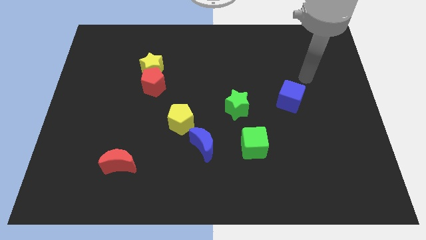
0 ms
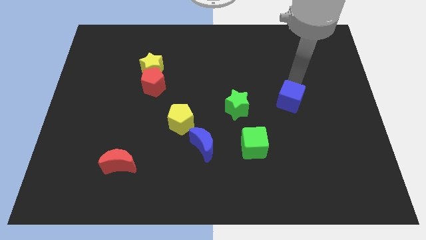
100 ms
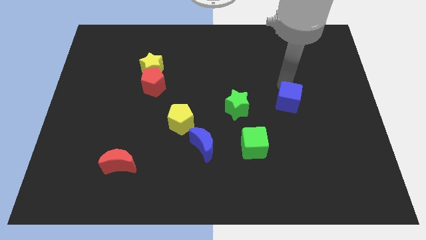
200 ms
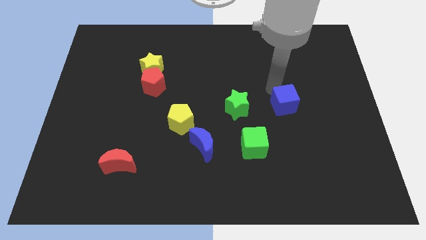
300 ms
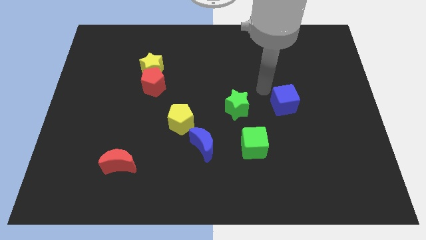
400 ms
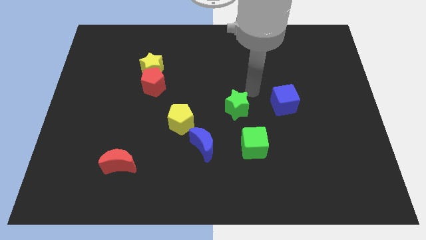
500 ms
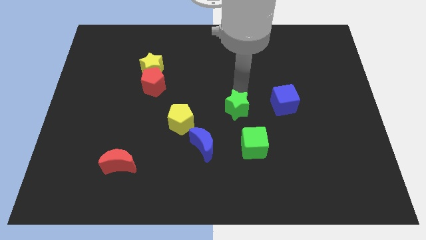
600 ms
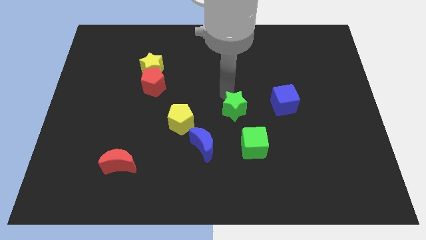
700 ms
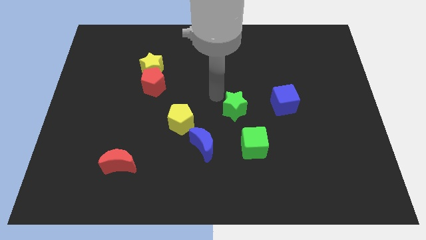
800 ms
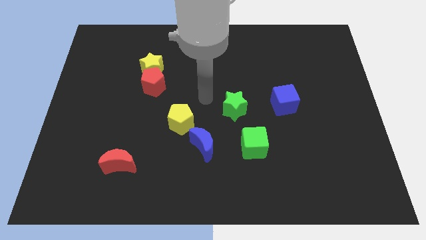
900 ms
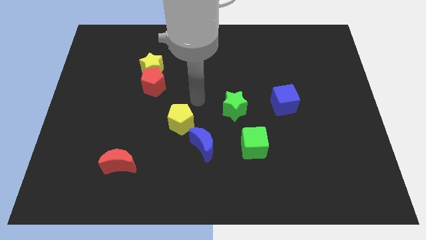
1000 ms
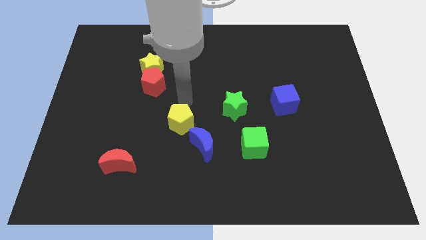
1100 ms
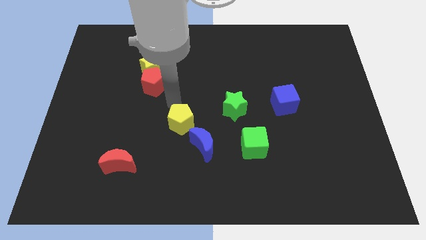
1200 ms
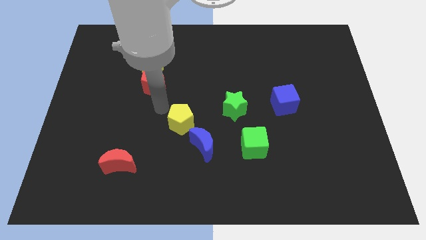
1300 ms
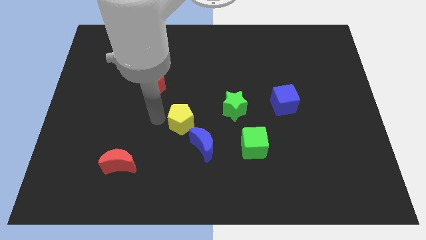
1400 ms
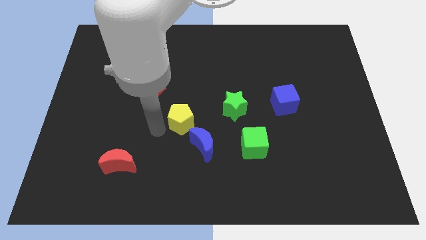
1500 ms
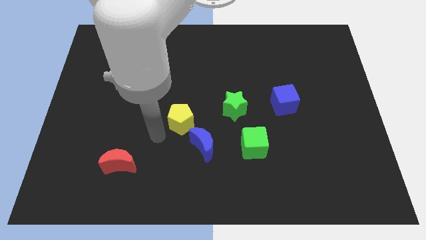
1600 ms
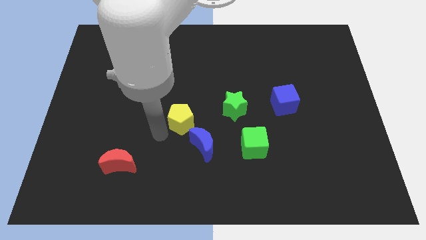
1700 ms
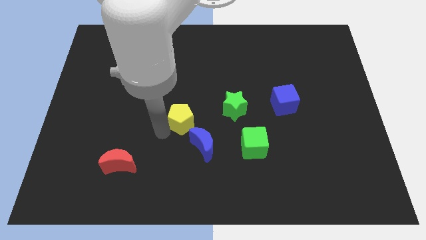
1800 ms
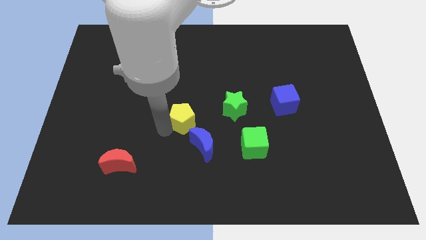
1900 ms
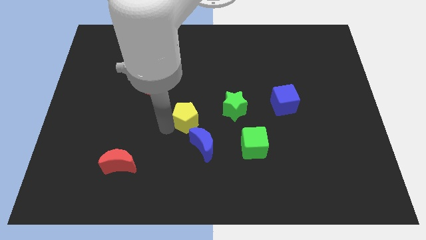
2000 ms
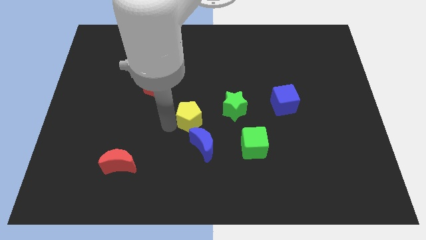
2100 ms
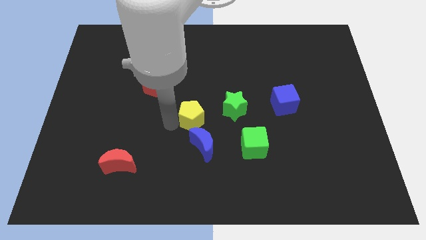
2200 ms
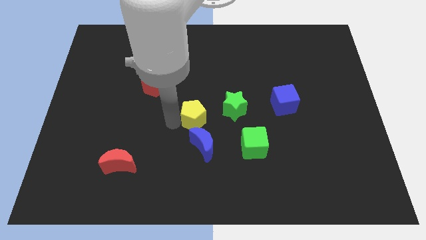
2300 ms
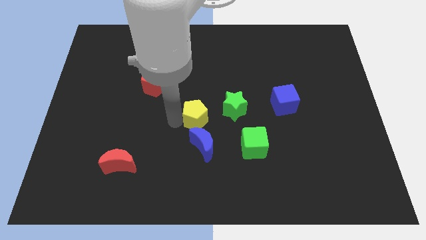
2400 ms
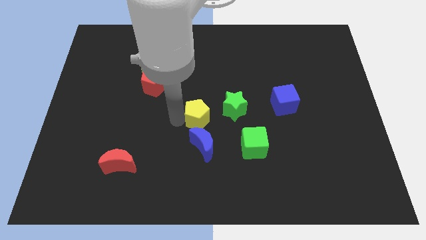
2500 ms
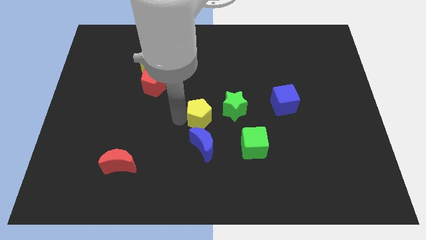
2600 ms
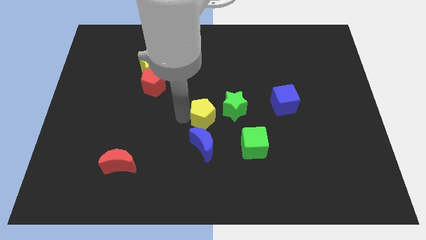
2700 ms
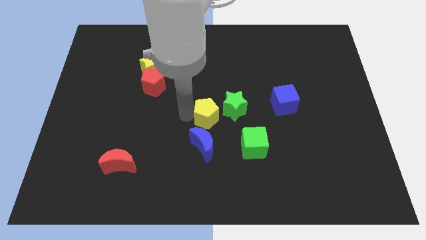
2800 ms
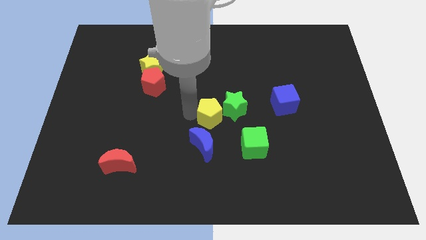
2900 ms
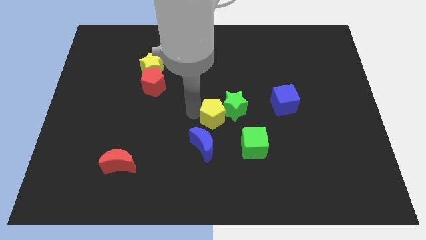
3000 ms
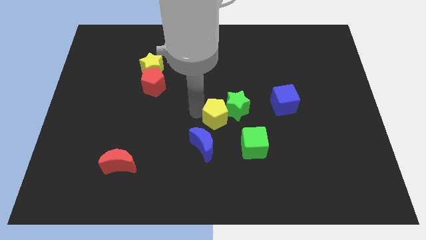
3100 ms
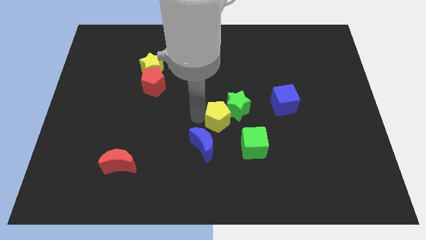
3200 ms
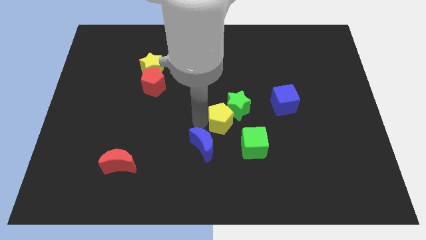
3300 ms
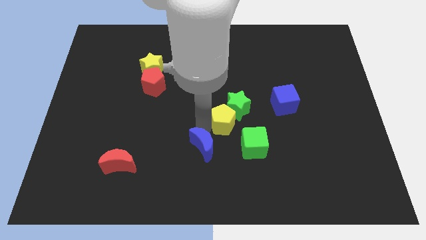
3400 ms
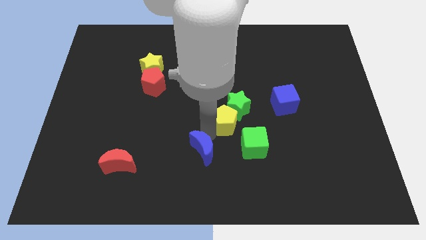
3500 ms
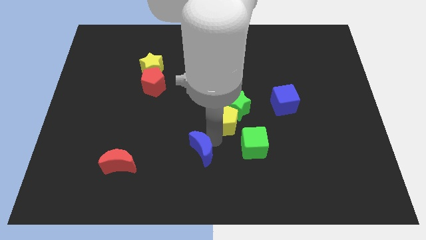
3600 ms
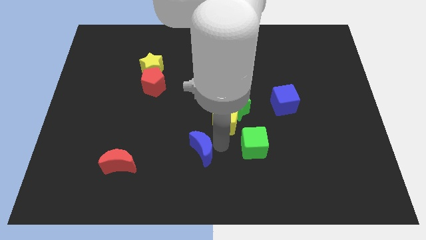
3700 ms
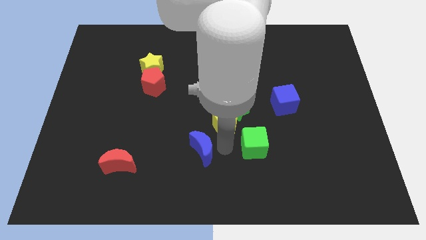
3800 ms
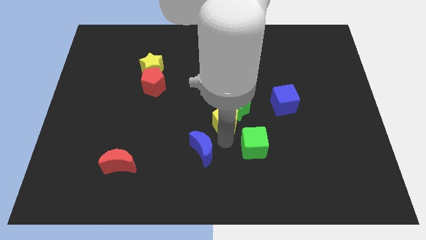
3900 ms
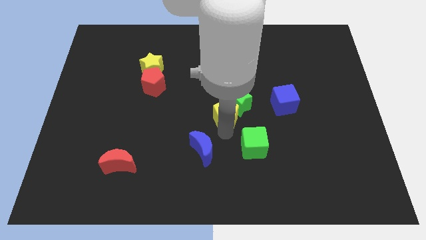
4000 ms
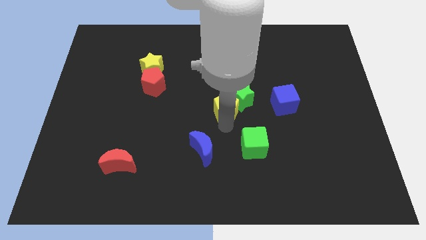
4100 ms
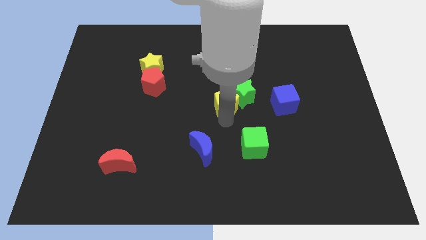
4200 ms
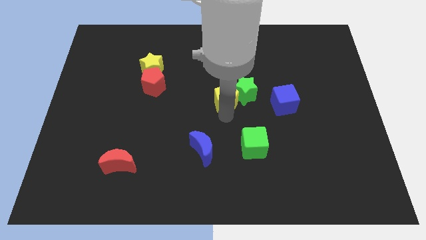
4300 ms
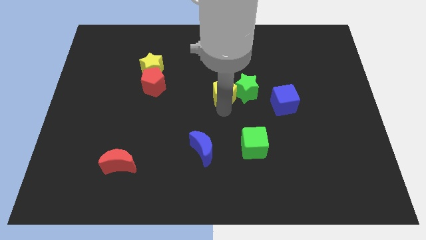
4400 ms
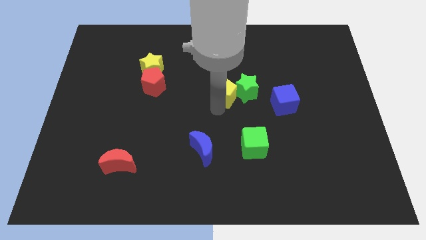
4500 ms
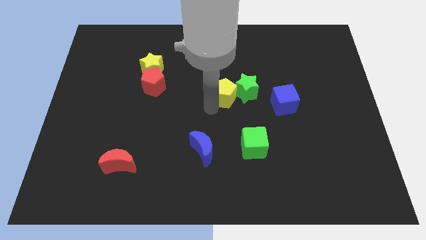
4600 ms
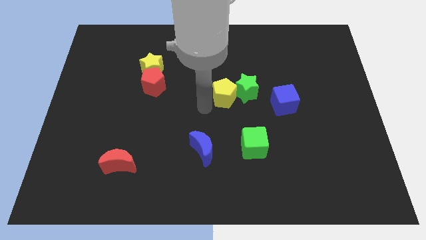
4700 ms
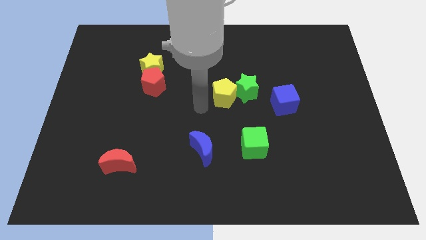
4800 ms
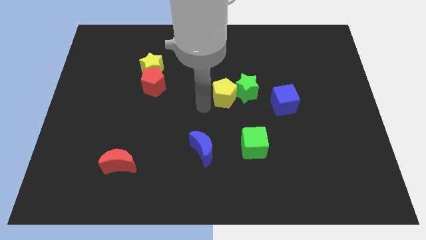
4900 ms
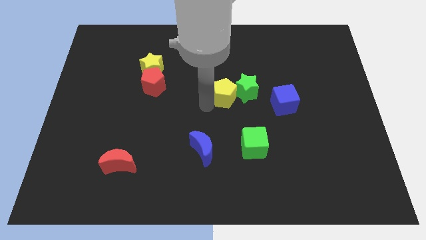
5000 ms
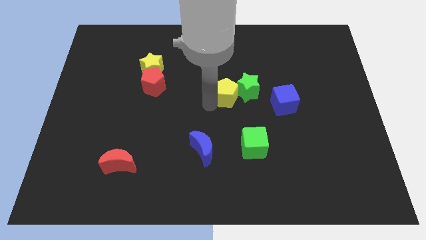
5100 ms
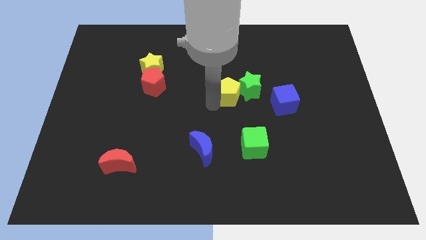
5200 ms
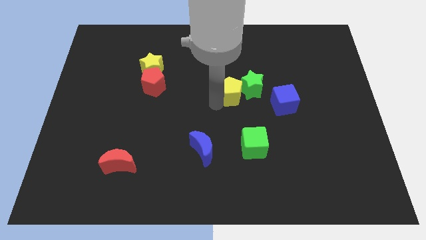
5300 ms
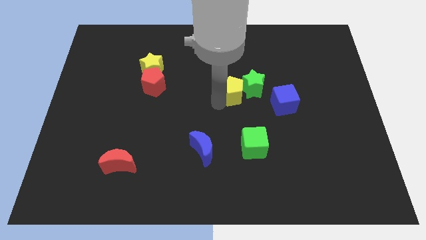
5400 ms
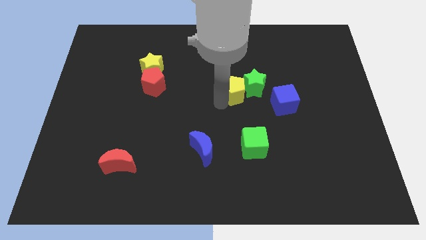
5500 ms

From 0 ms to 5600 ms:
slide the yellow pentagon to the top side of the green cube

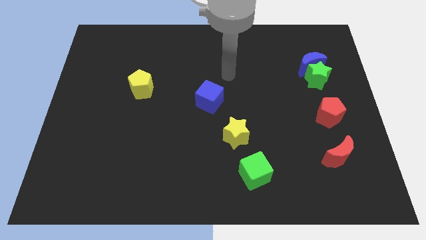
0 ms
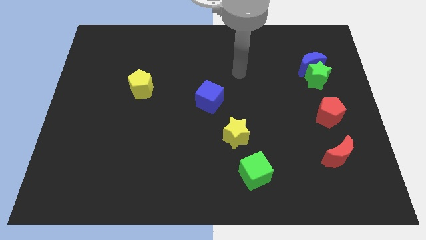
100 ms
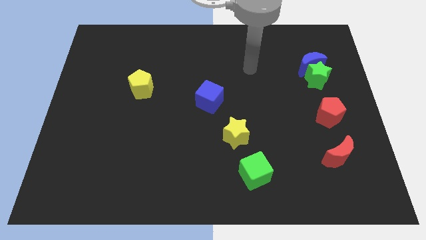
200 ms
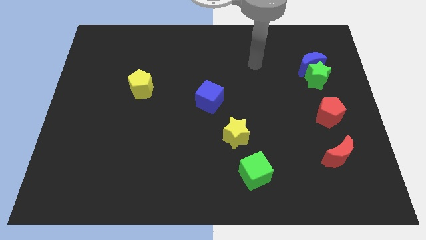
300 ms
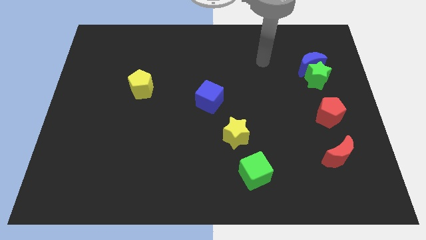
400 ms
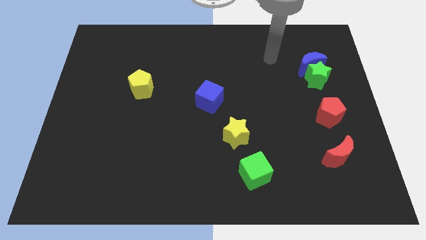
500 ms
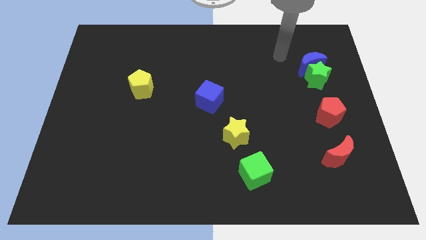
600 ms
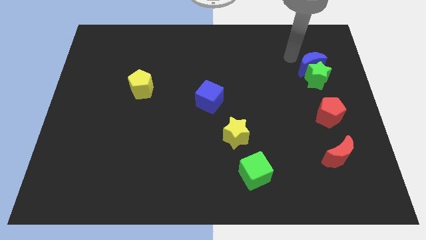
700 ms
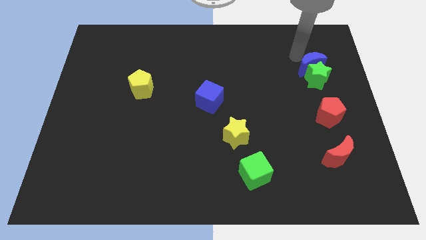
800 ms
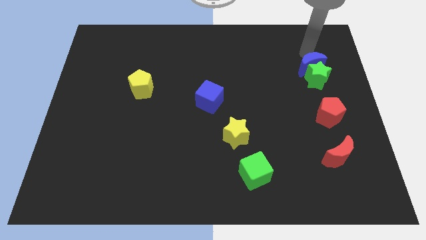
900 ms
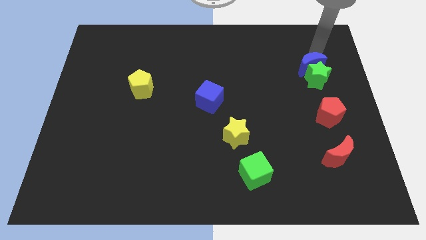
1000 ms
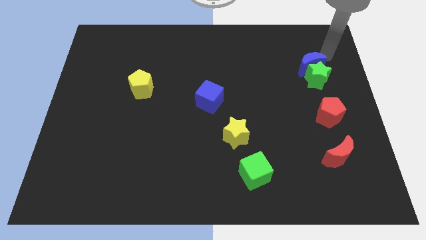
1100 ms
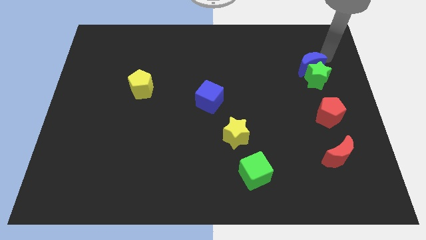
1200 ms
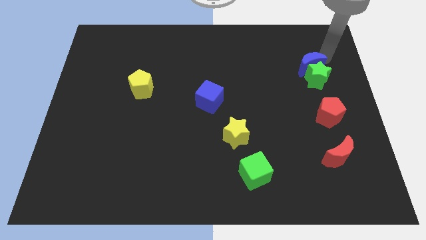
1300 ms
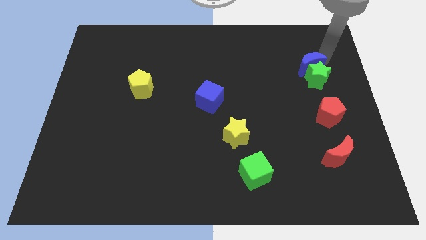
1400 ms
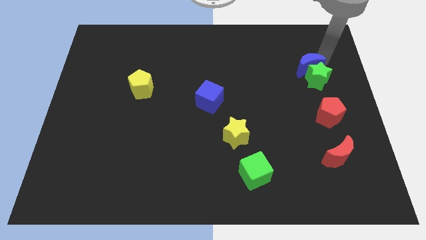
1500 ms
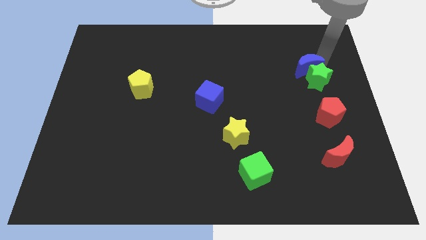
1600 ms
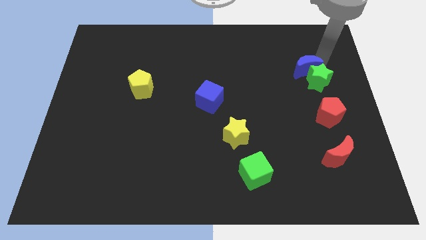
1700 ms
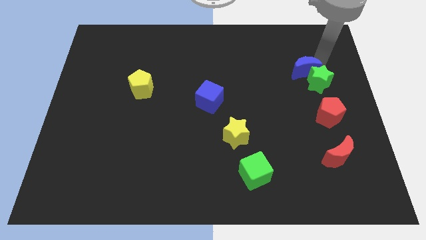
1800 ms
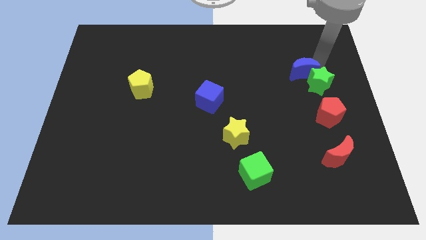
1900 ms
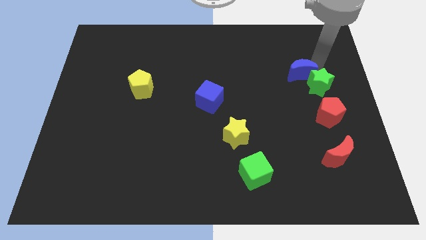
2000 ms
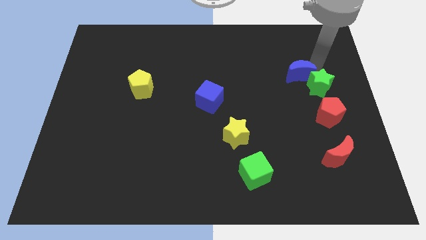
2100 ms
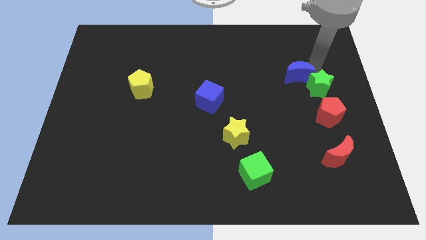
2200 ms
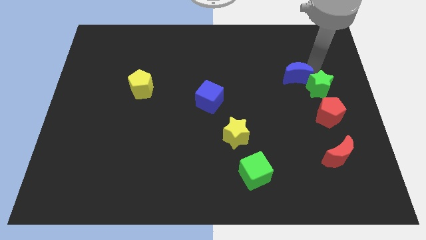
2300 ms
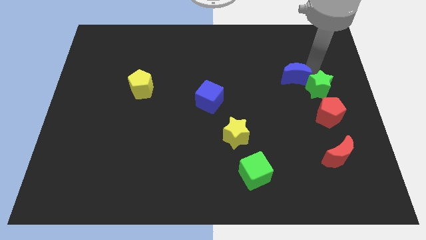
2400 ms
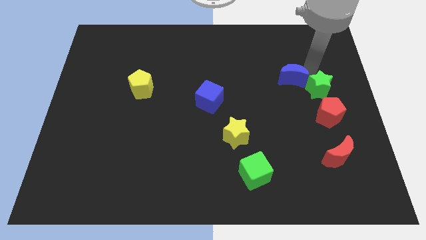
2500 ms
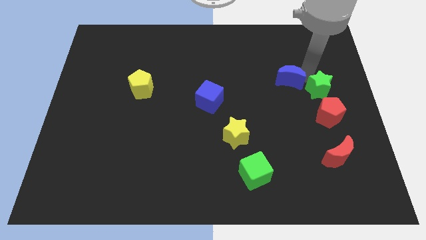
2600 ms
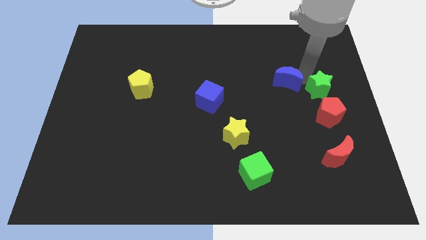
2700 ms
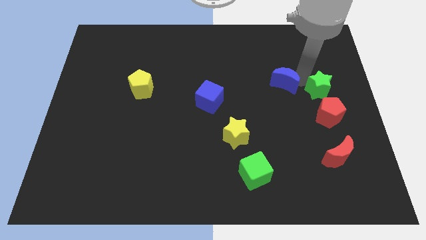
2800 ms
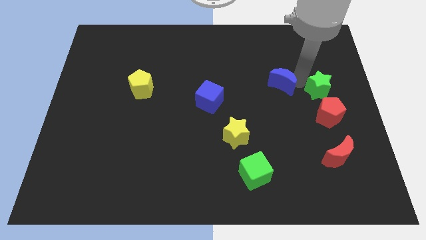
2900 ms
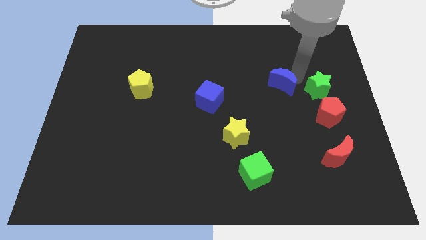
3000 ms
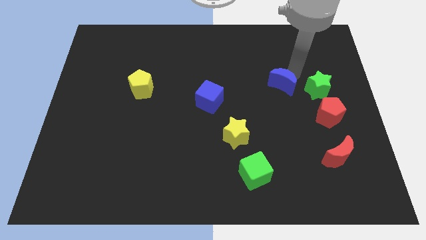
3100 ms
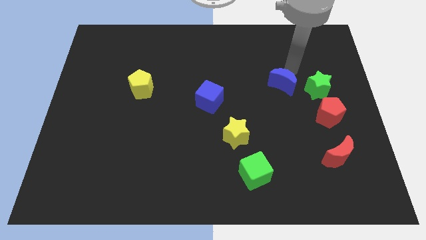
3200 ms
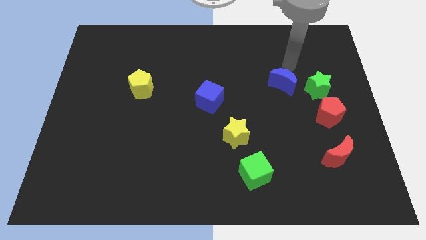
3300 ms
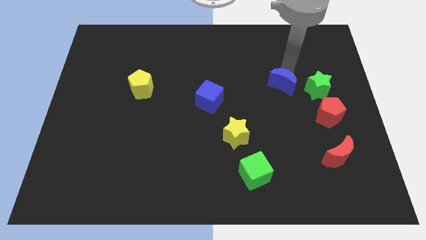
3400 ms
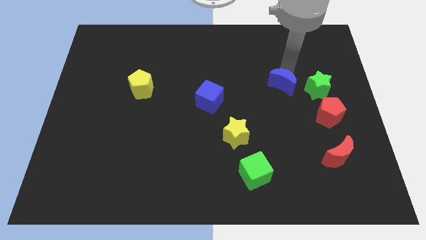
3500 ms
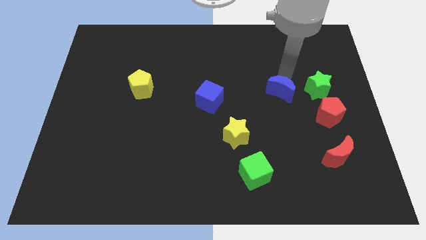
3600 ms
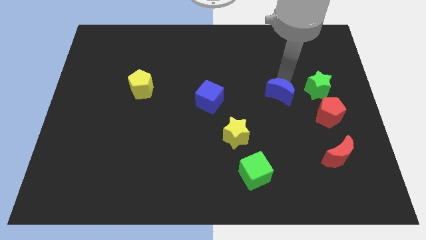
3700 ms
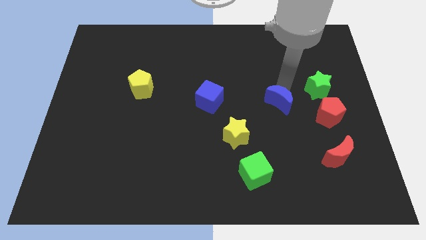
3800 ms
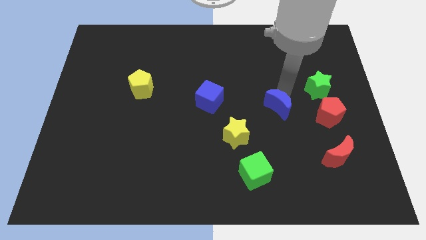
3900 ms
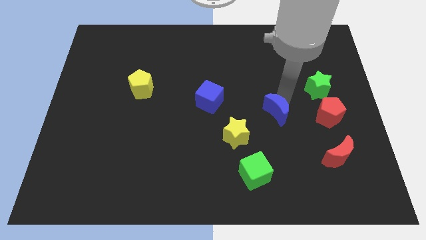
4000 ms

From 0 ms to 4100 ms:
slide the blue moon to the top right of the yellow star
